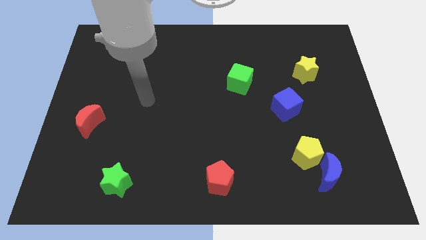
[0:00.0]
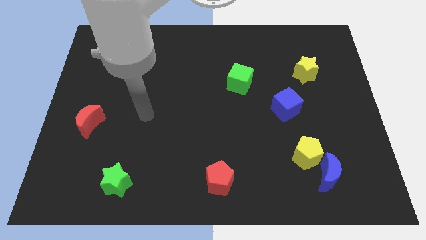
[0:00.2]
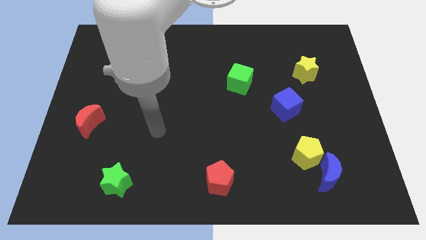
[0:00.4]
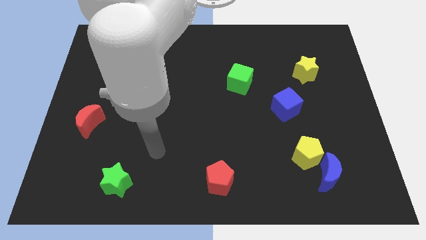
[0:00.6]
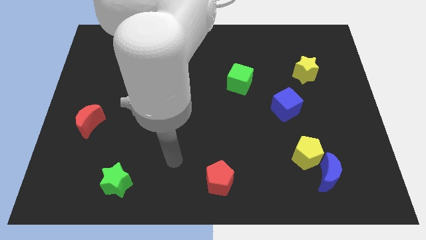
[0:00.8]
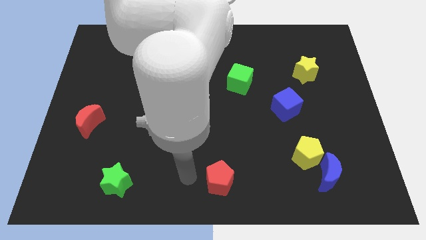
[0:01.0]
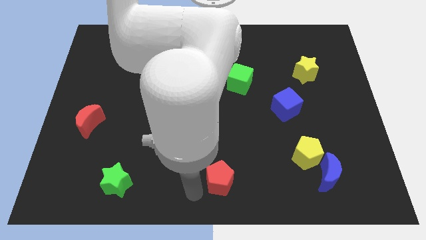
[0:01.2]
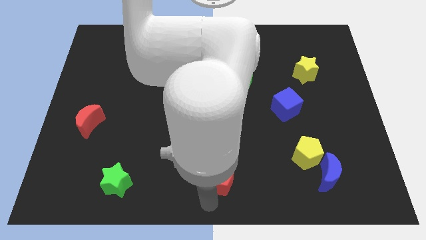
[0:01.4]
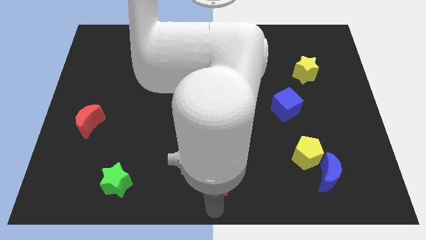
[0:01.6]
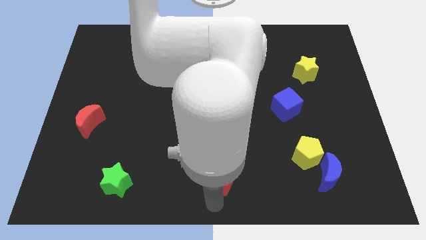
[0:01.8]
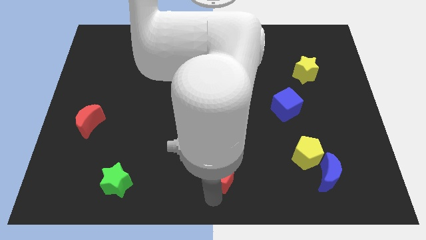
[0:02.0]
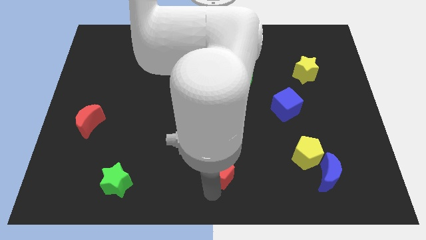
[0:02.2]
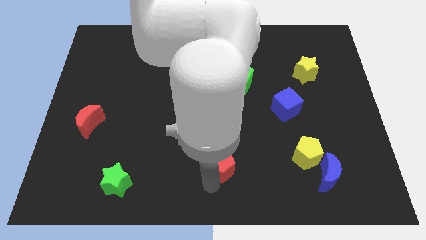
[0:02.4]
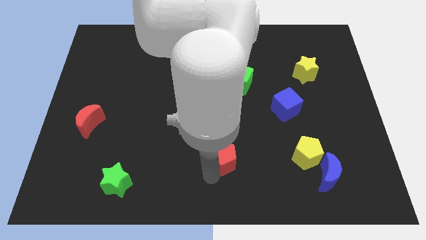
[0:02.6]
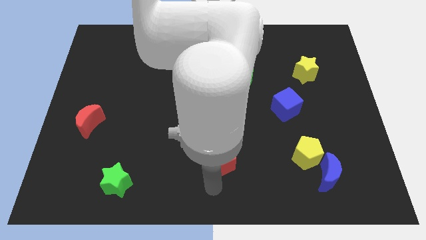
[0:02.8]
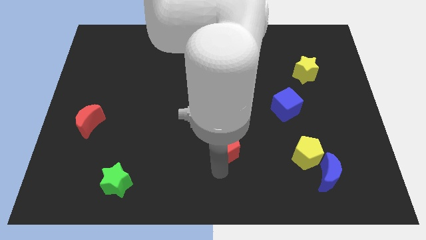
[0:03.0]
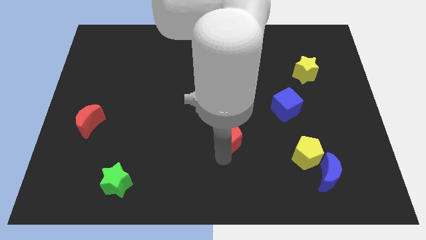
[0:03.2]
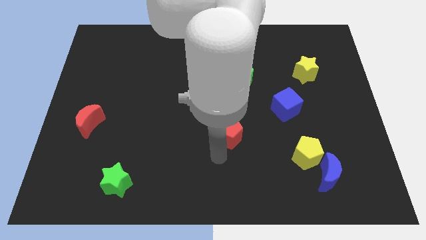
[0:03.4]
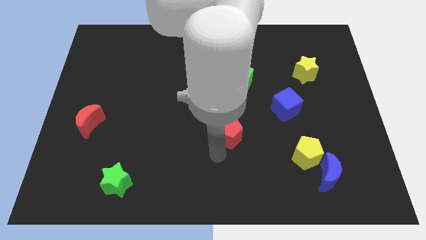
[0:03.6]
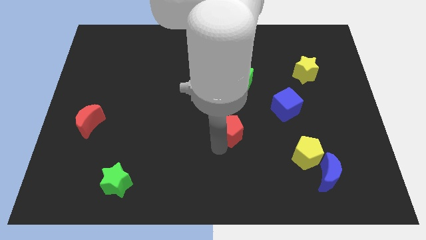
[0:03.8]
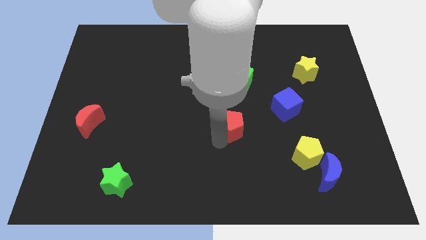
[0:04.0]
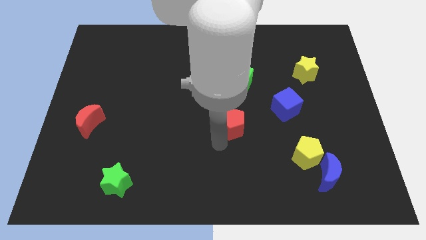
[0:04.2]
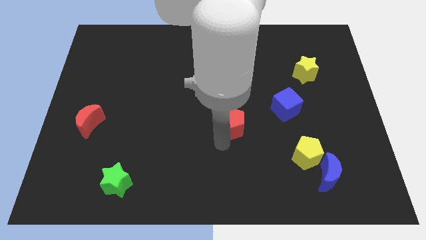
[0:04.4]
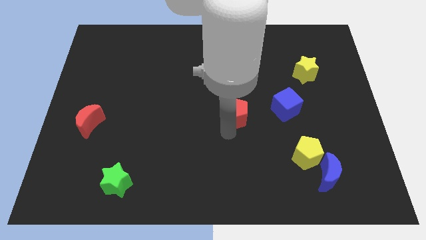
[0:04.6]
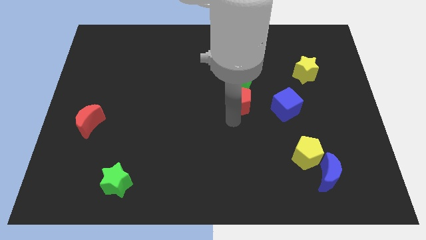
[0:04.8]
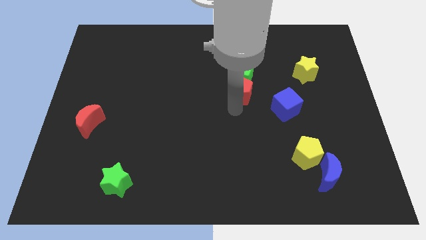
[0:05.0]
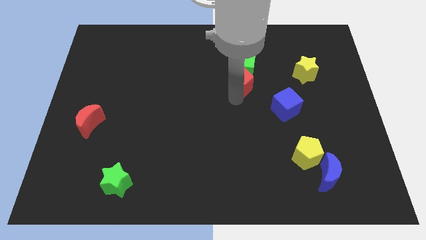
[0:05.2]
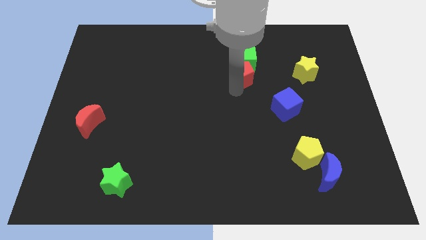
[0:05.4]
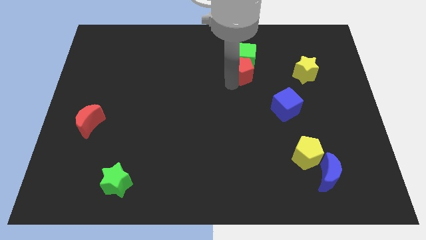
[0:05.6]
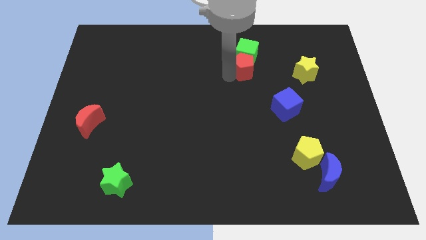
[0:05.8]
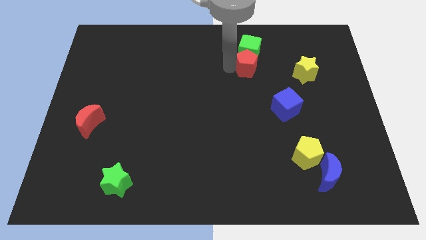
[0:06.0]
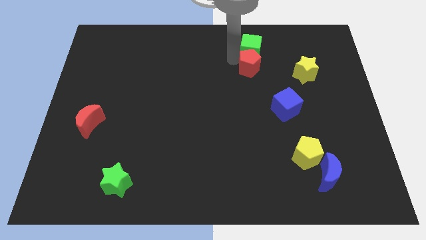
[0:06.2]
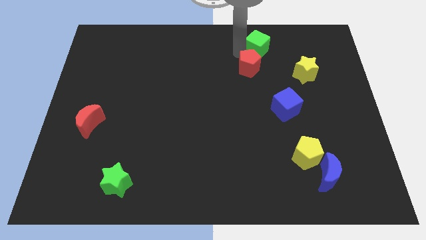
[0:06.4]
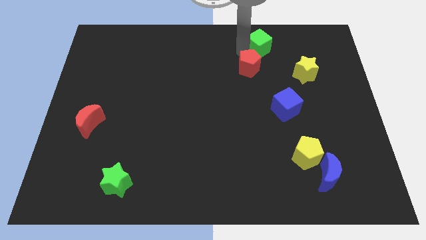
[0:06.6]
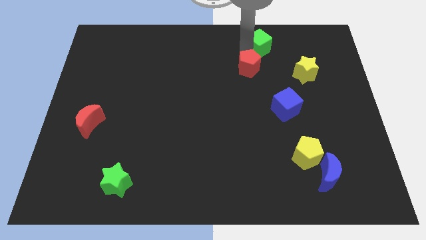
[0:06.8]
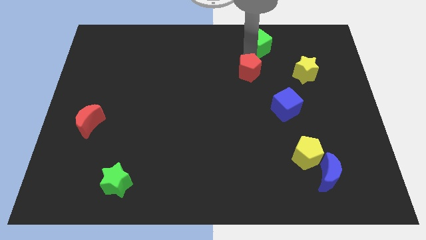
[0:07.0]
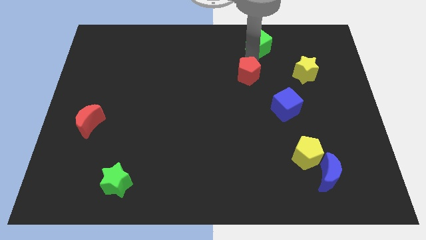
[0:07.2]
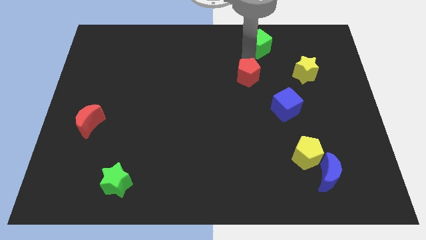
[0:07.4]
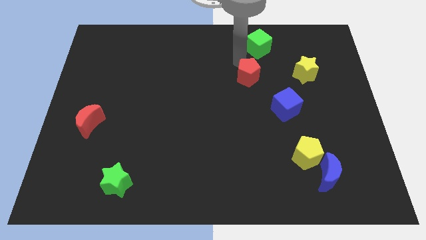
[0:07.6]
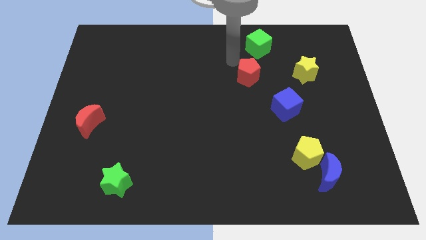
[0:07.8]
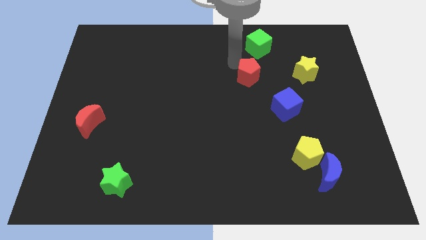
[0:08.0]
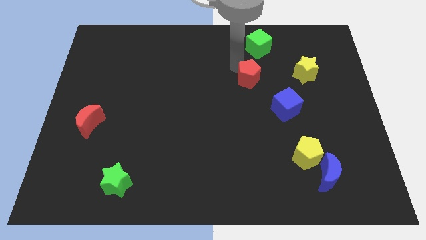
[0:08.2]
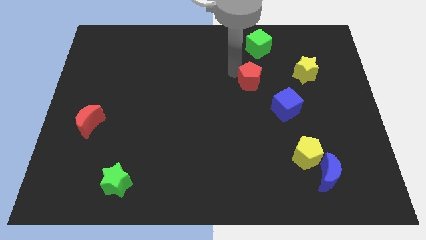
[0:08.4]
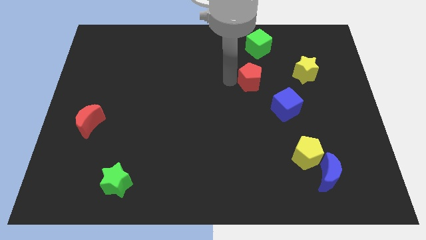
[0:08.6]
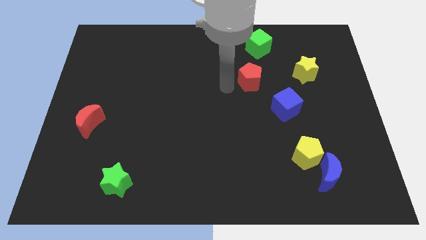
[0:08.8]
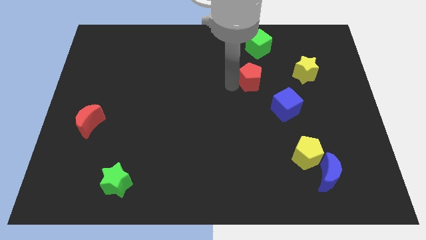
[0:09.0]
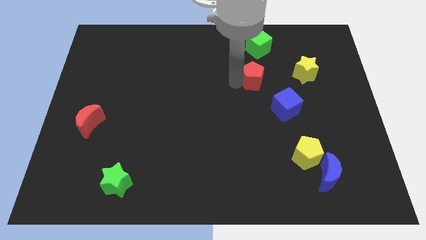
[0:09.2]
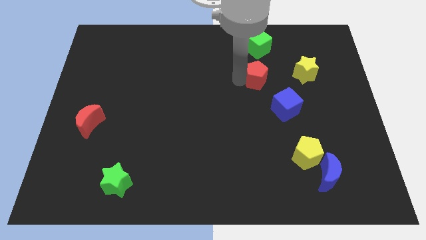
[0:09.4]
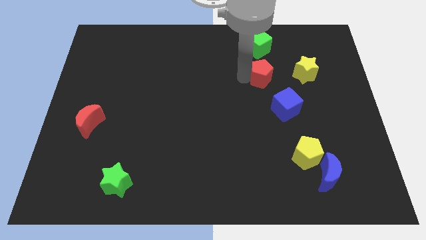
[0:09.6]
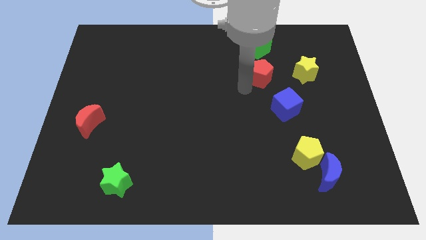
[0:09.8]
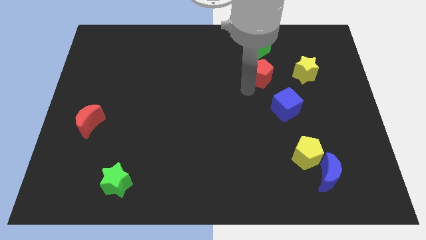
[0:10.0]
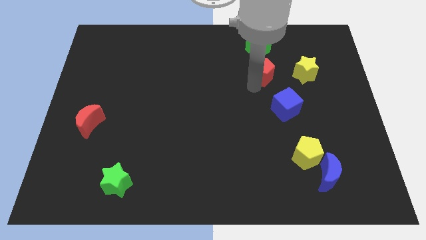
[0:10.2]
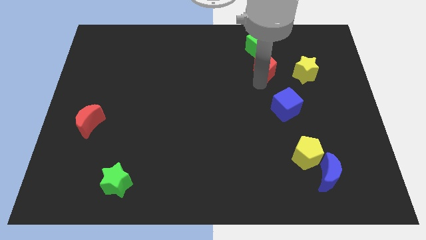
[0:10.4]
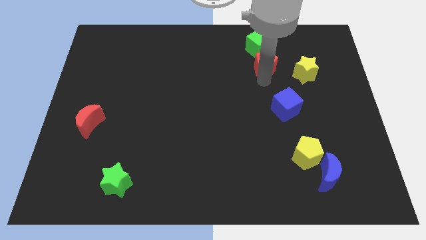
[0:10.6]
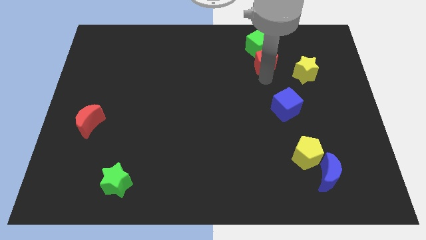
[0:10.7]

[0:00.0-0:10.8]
push the red pentagon diagonally up and to the left of the yellow star

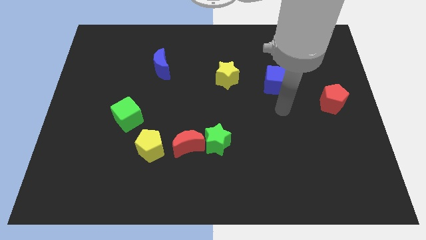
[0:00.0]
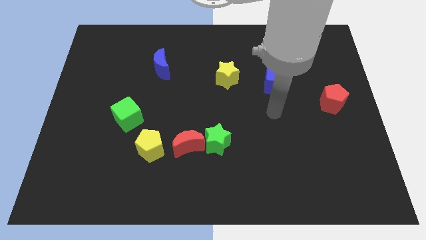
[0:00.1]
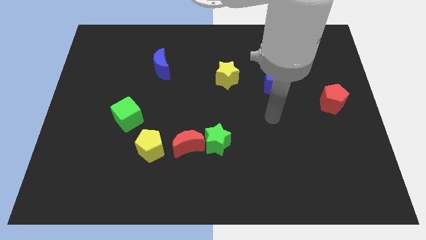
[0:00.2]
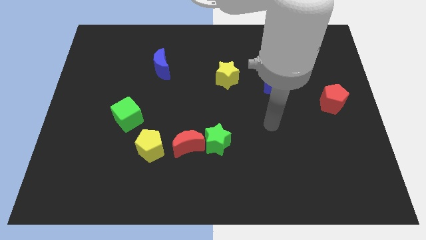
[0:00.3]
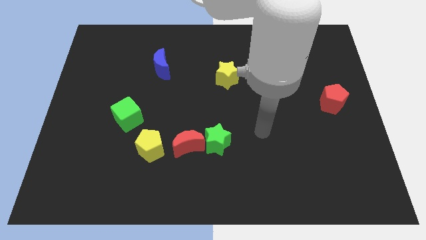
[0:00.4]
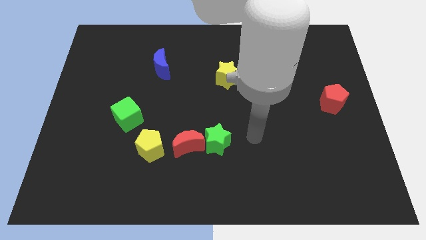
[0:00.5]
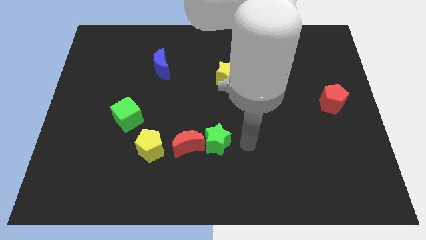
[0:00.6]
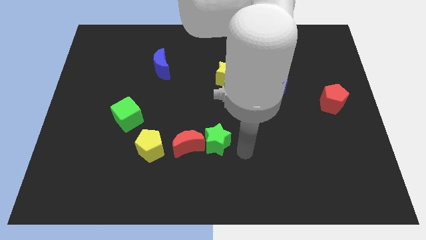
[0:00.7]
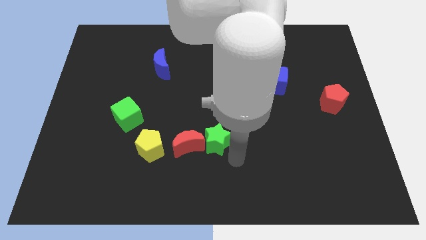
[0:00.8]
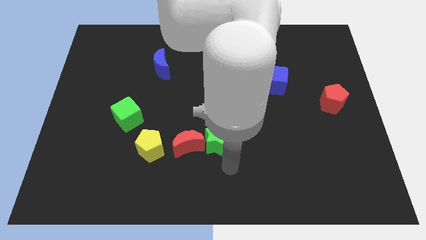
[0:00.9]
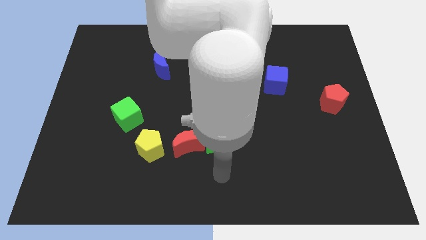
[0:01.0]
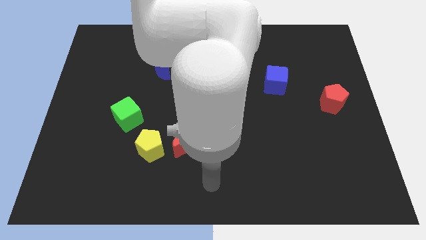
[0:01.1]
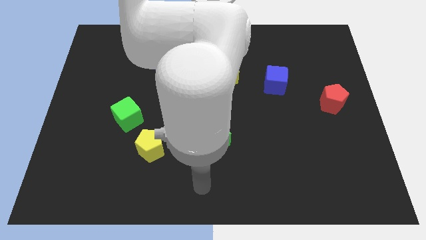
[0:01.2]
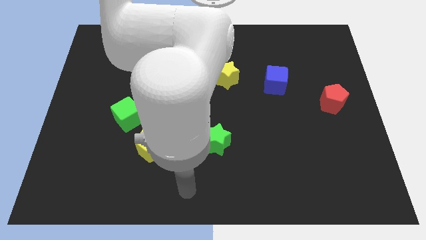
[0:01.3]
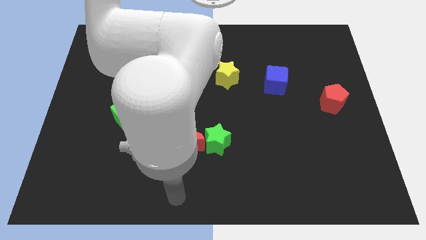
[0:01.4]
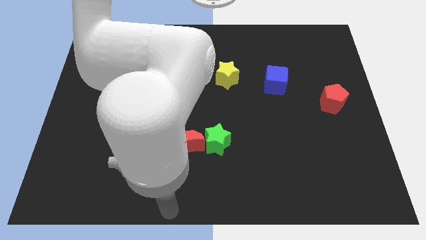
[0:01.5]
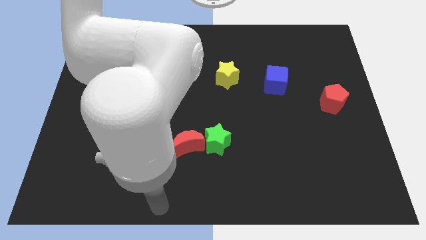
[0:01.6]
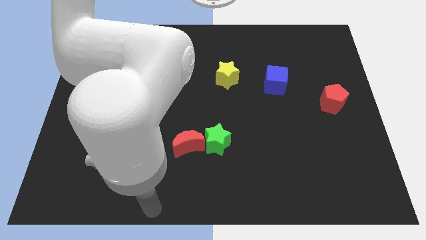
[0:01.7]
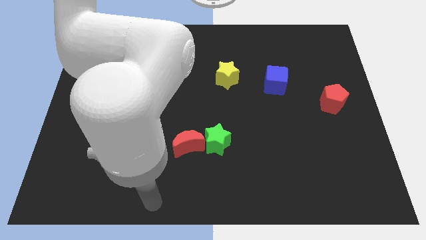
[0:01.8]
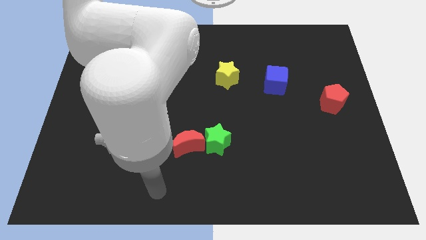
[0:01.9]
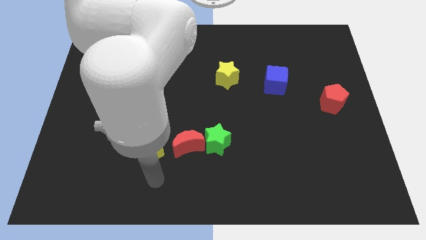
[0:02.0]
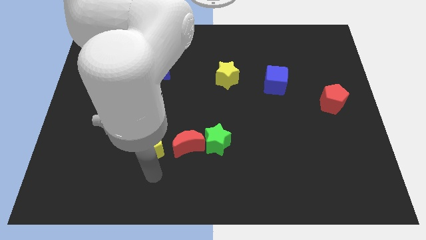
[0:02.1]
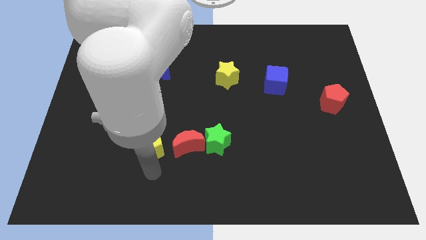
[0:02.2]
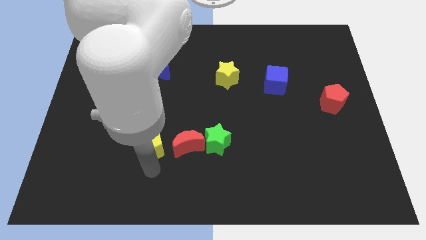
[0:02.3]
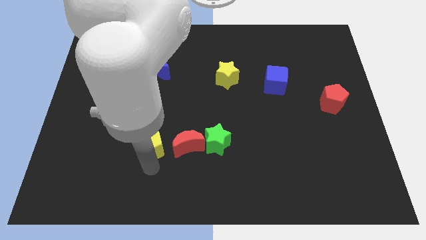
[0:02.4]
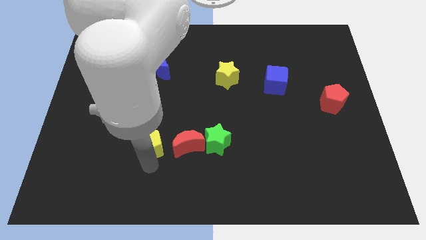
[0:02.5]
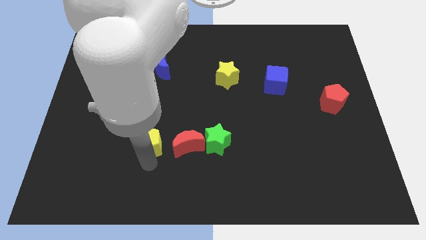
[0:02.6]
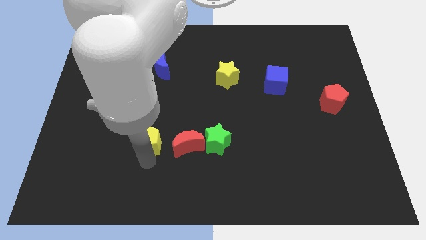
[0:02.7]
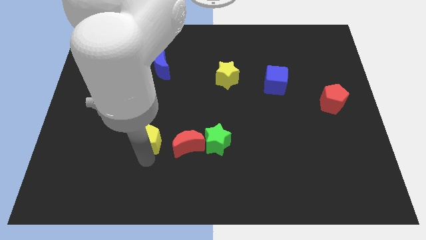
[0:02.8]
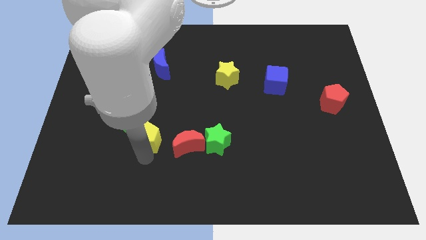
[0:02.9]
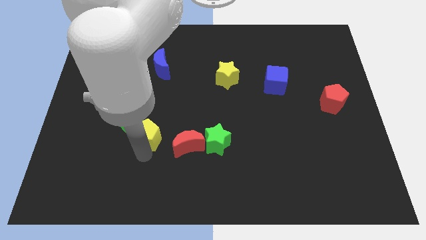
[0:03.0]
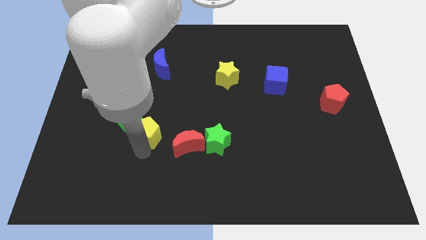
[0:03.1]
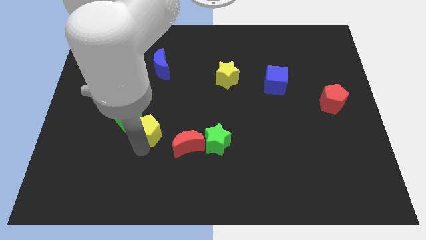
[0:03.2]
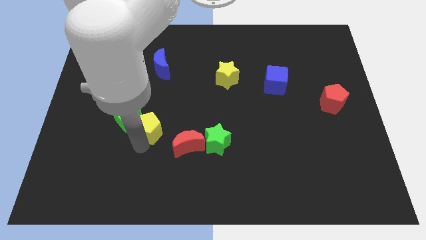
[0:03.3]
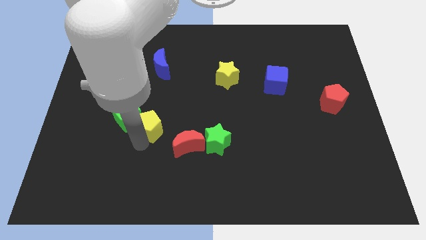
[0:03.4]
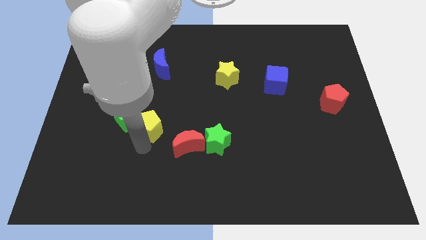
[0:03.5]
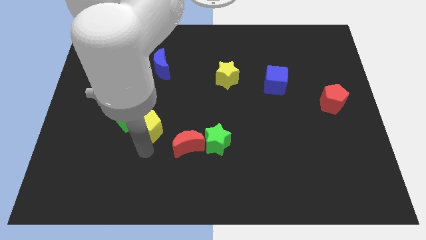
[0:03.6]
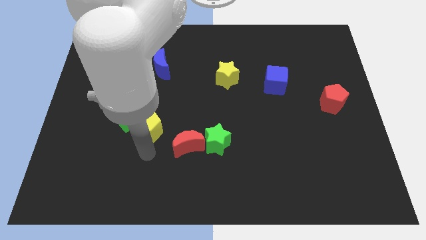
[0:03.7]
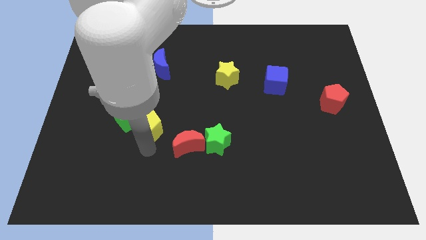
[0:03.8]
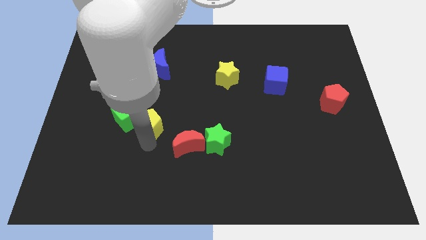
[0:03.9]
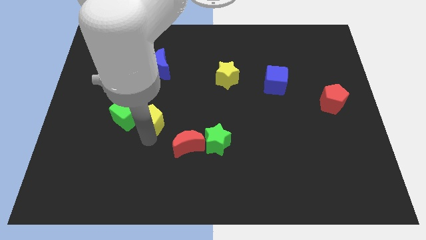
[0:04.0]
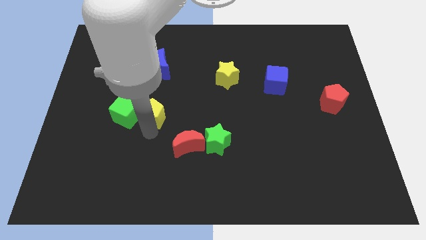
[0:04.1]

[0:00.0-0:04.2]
push the yellow pentagon to the top right side of the green cube
